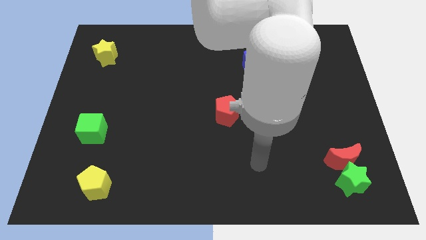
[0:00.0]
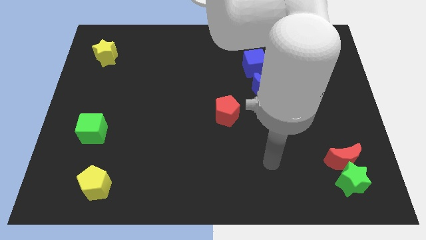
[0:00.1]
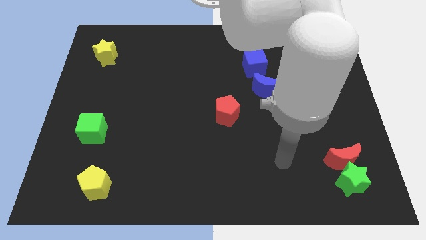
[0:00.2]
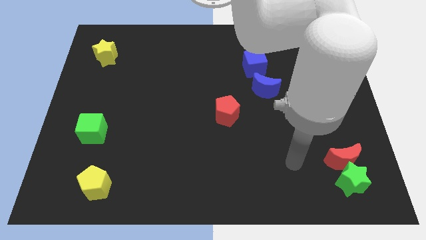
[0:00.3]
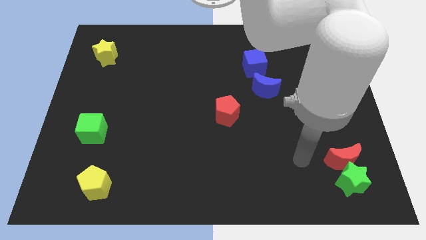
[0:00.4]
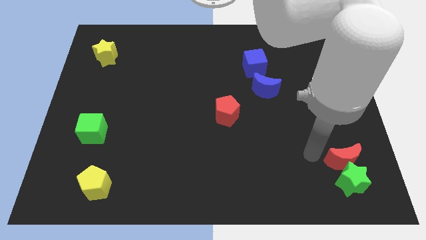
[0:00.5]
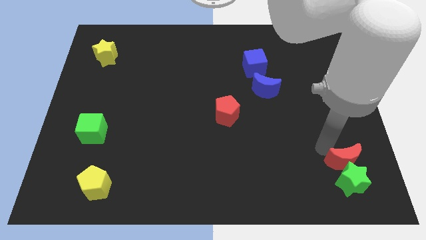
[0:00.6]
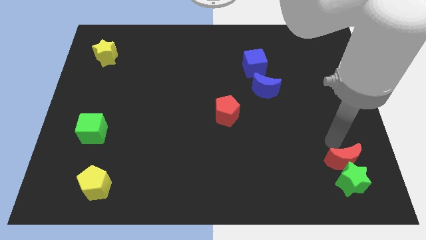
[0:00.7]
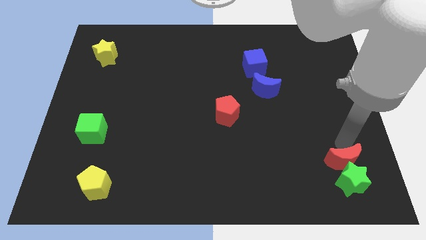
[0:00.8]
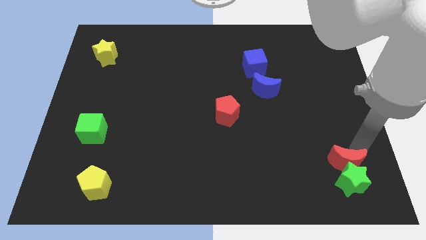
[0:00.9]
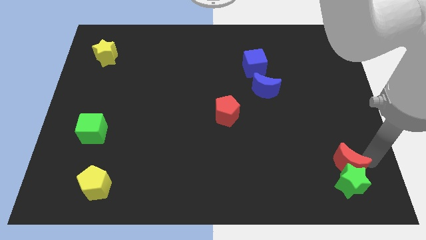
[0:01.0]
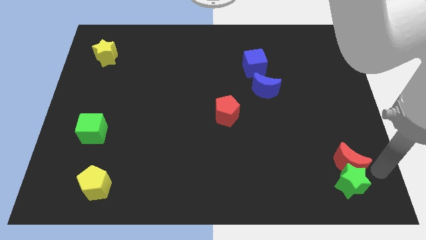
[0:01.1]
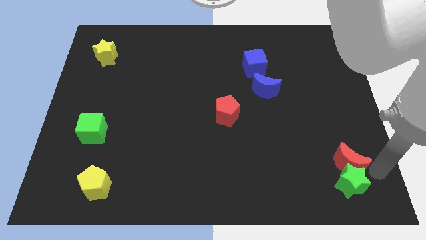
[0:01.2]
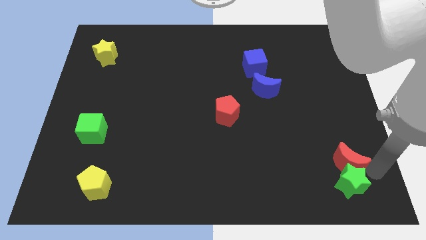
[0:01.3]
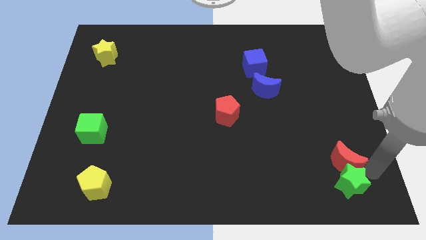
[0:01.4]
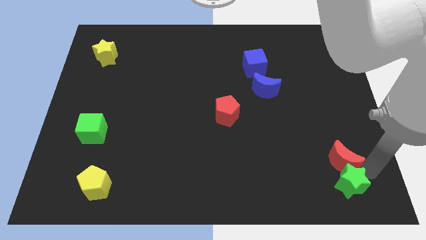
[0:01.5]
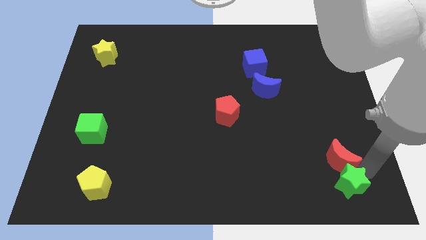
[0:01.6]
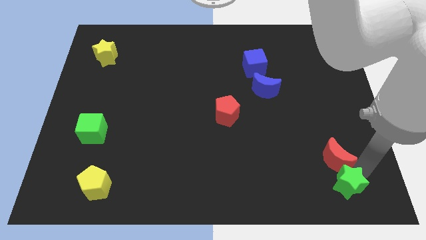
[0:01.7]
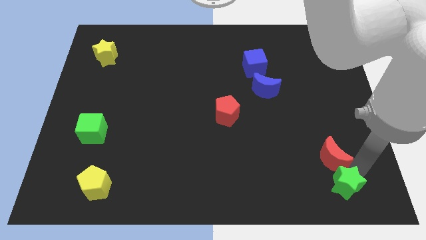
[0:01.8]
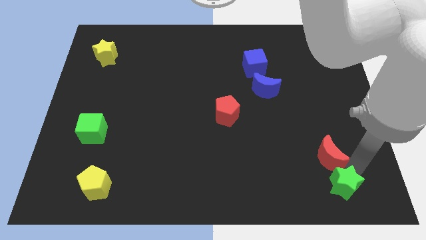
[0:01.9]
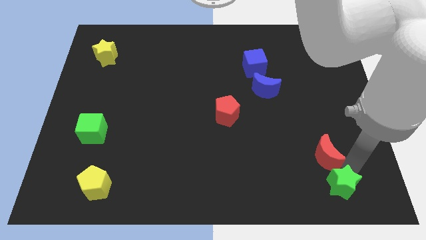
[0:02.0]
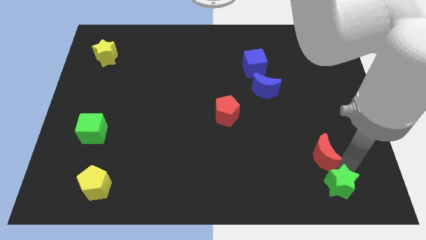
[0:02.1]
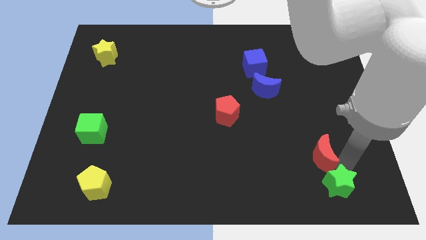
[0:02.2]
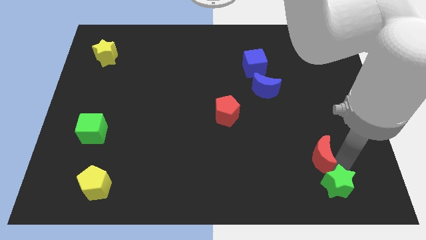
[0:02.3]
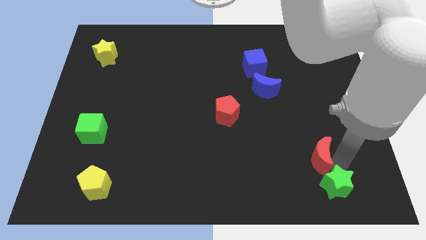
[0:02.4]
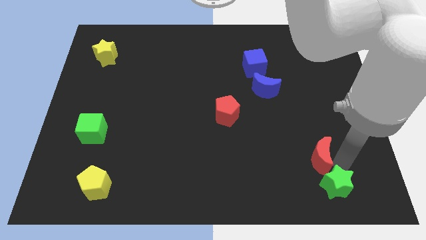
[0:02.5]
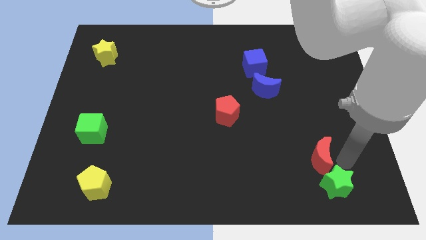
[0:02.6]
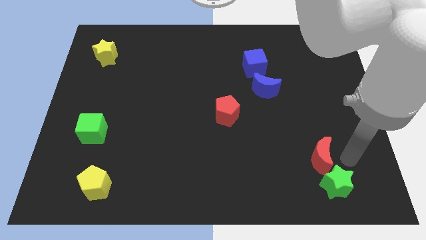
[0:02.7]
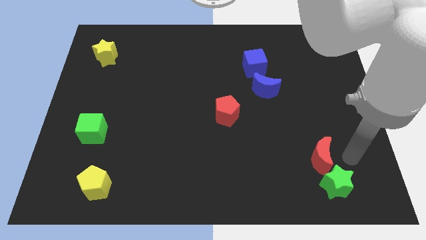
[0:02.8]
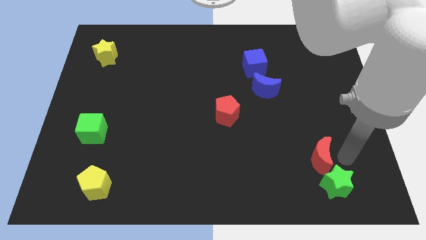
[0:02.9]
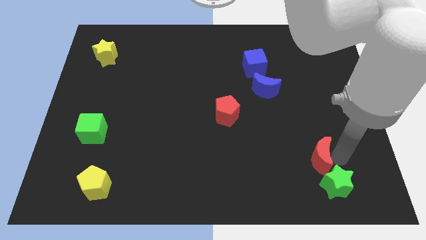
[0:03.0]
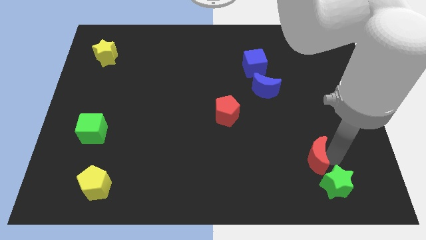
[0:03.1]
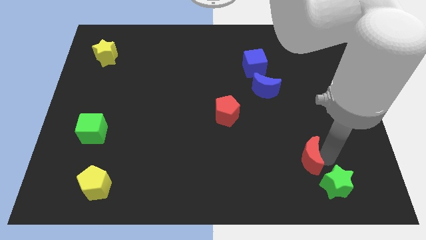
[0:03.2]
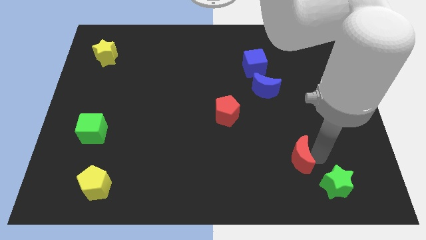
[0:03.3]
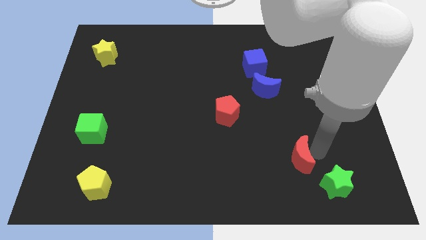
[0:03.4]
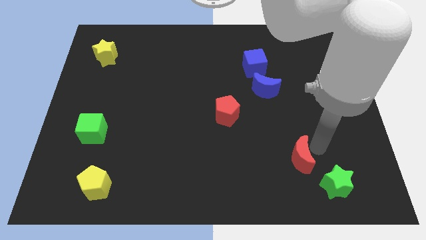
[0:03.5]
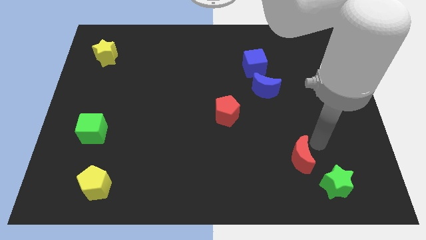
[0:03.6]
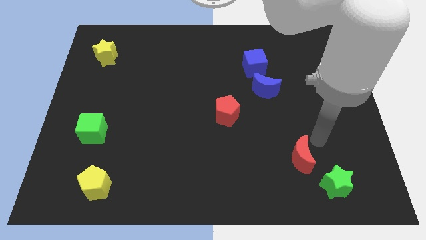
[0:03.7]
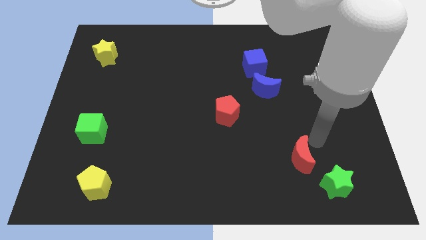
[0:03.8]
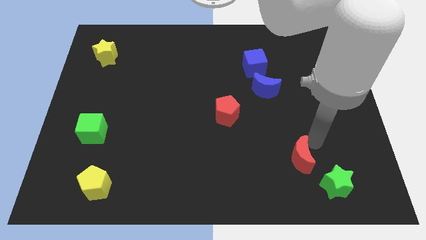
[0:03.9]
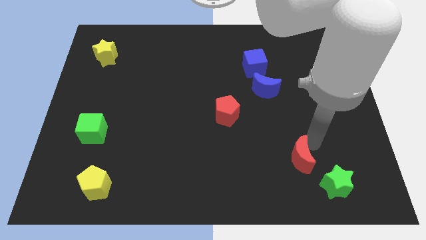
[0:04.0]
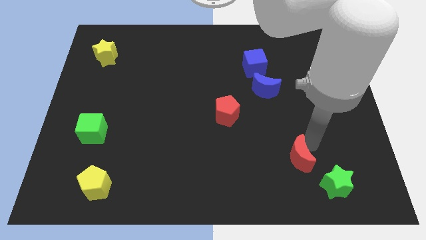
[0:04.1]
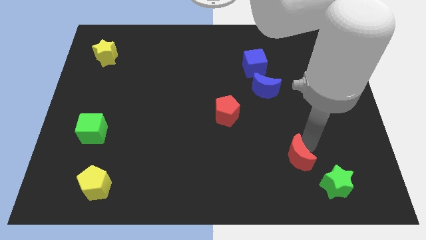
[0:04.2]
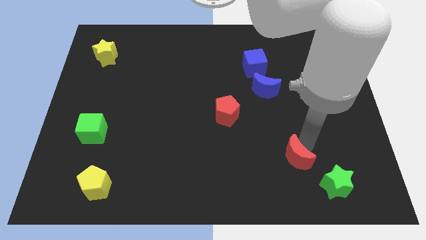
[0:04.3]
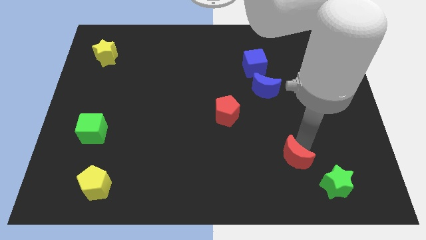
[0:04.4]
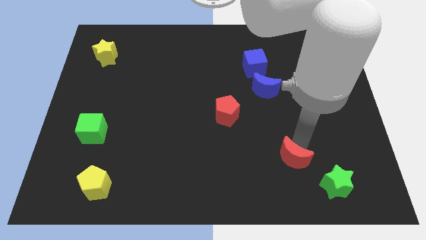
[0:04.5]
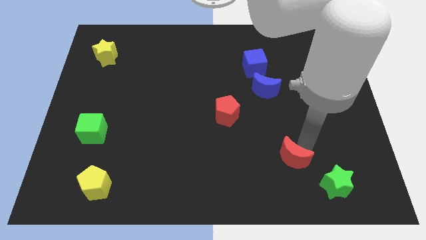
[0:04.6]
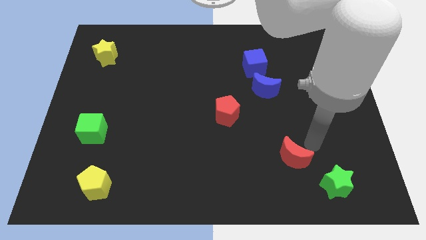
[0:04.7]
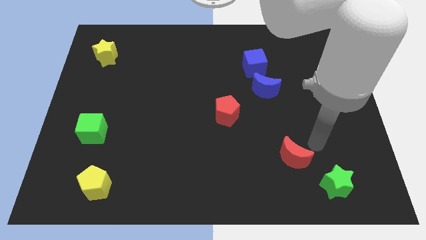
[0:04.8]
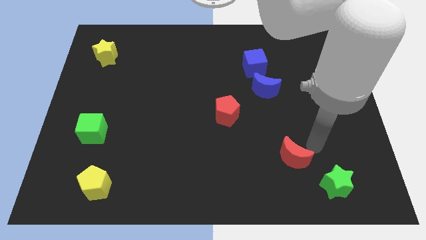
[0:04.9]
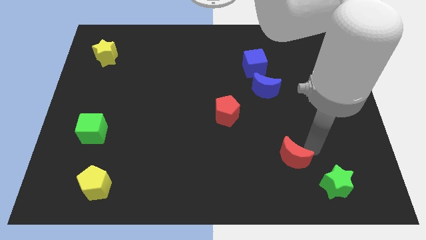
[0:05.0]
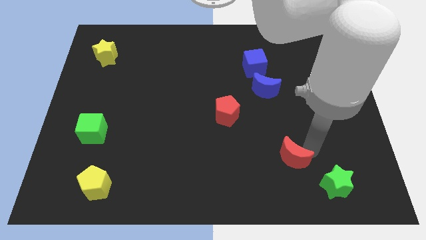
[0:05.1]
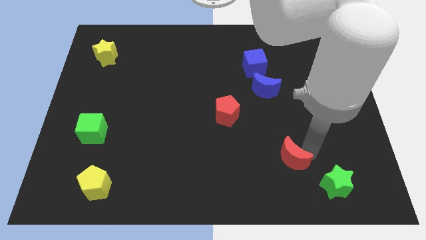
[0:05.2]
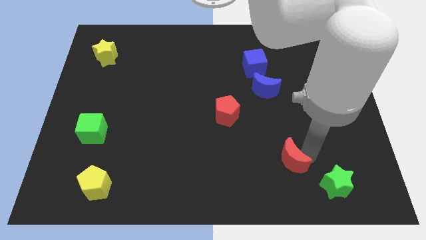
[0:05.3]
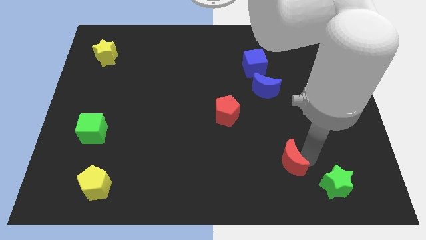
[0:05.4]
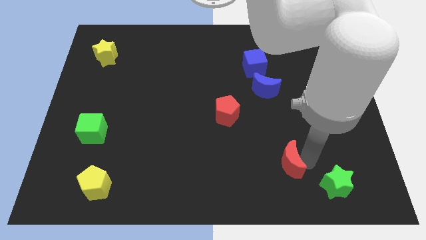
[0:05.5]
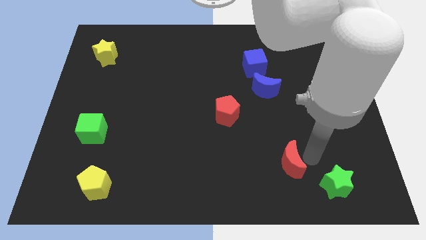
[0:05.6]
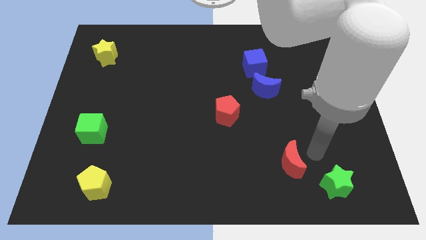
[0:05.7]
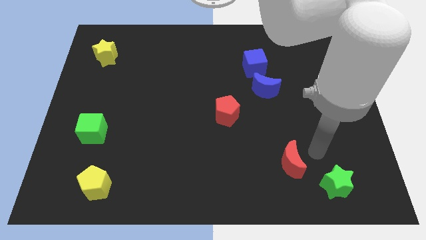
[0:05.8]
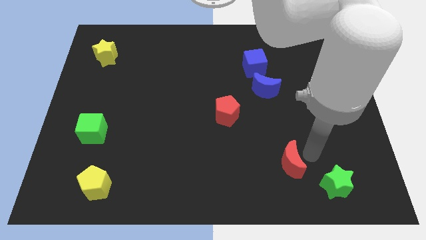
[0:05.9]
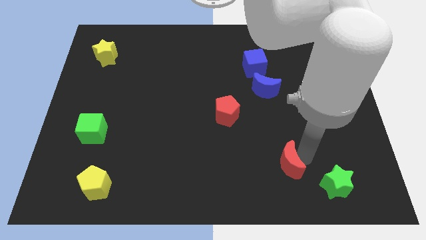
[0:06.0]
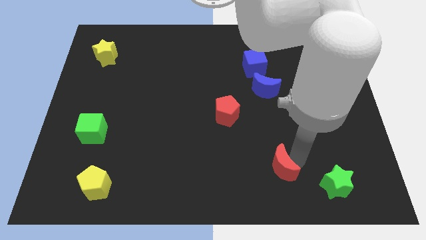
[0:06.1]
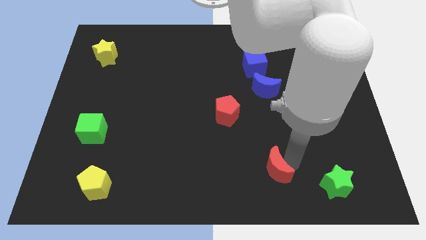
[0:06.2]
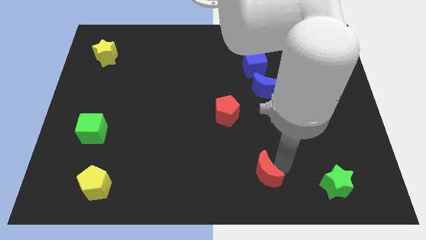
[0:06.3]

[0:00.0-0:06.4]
move the red moon to the bottom side
